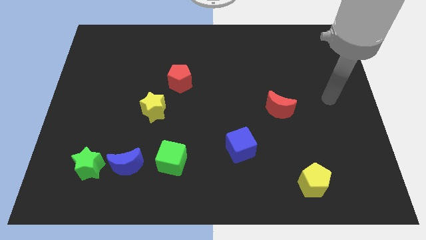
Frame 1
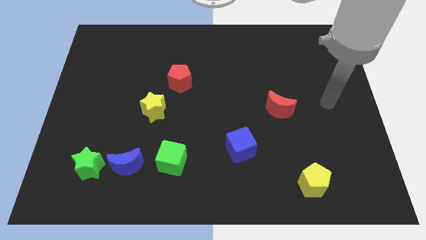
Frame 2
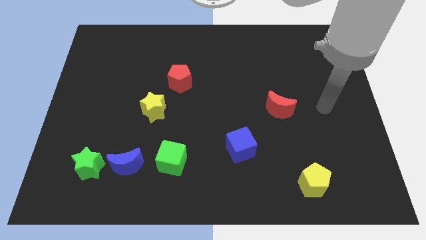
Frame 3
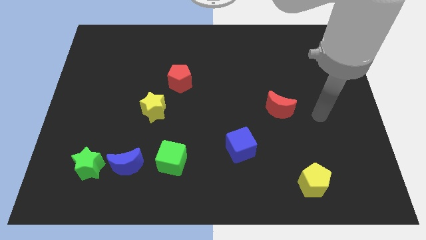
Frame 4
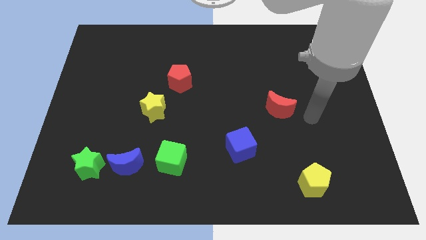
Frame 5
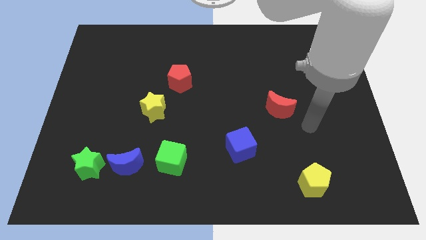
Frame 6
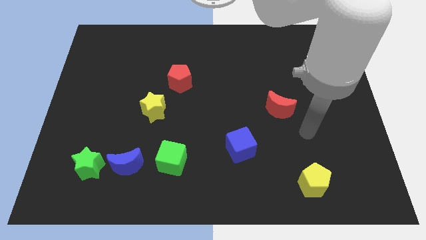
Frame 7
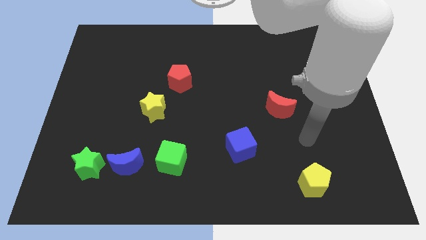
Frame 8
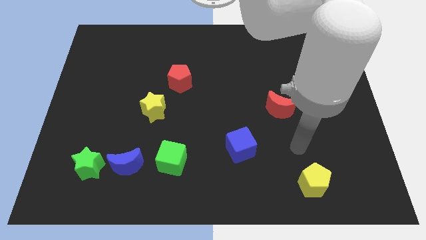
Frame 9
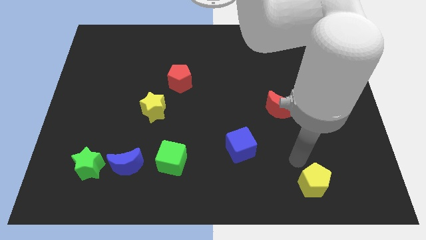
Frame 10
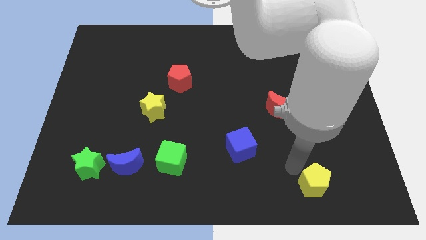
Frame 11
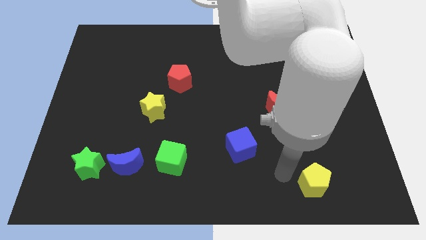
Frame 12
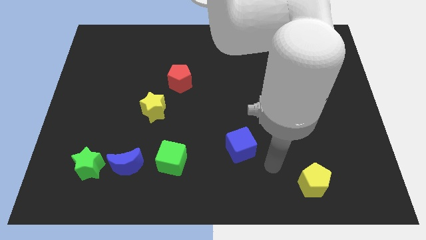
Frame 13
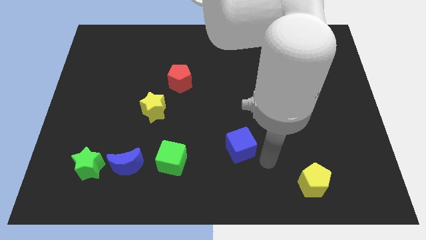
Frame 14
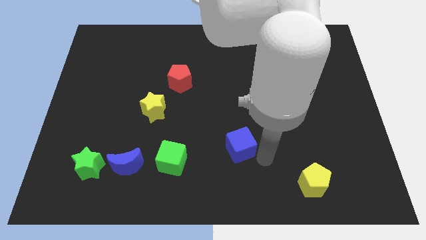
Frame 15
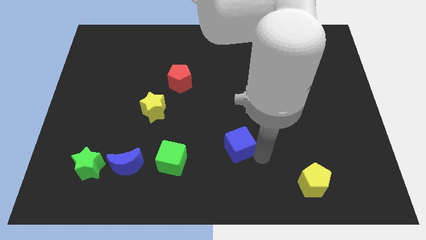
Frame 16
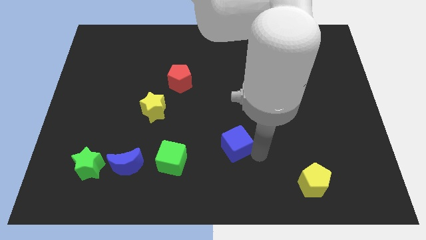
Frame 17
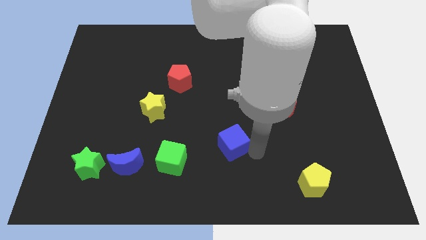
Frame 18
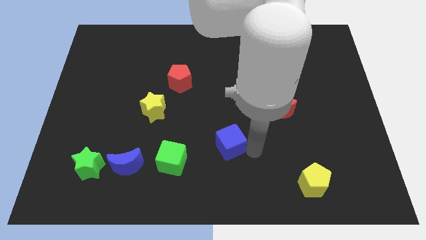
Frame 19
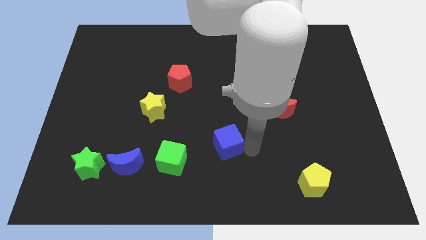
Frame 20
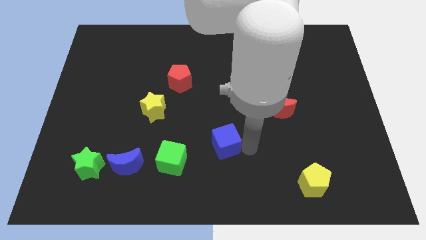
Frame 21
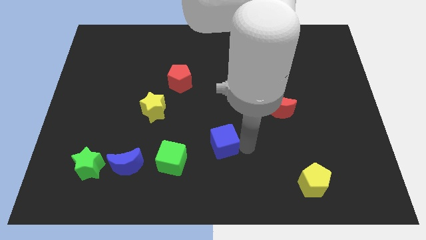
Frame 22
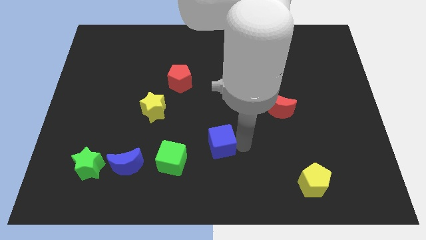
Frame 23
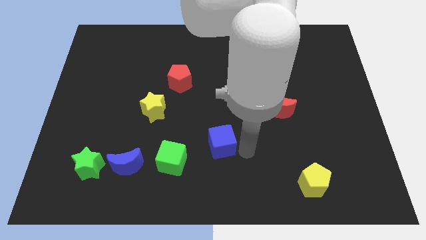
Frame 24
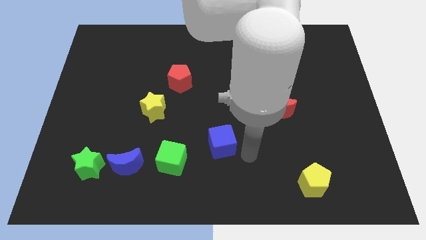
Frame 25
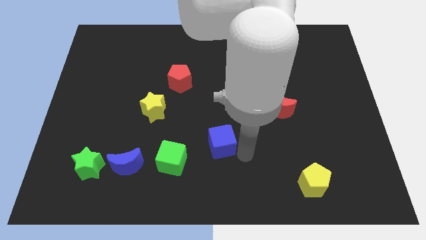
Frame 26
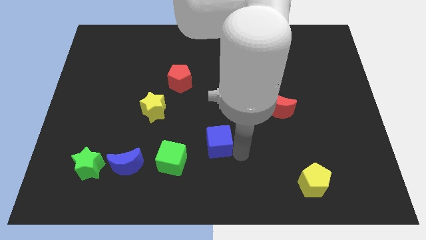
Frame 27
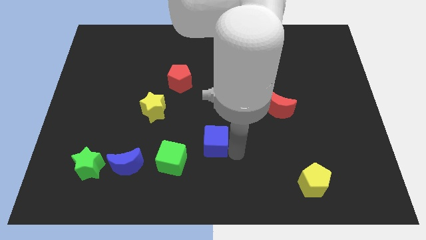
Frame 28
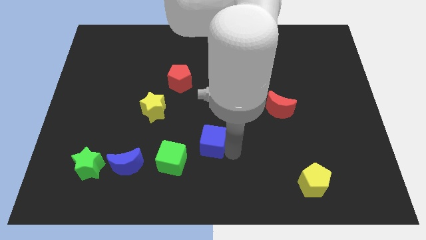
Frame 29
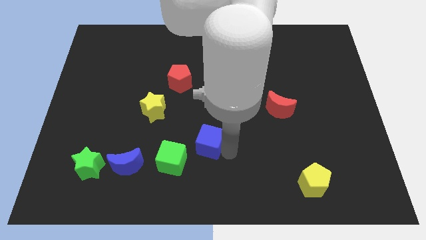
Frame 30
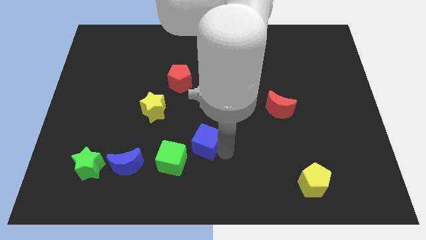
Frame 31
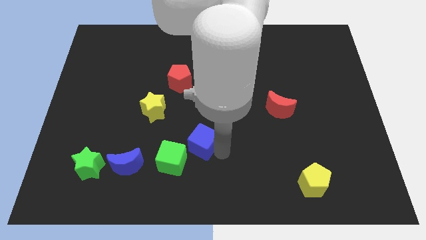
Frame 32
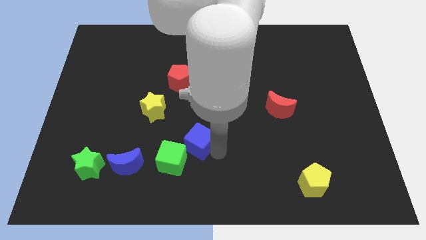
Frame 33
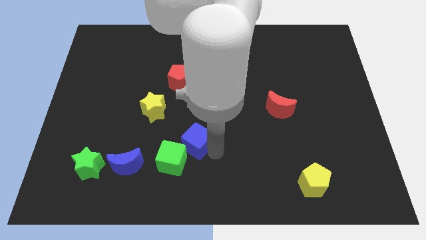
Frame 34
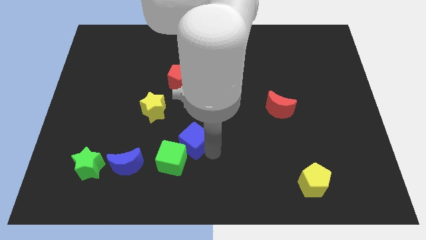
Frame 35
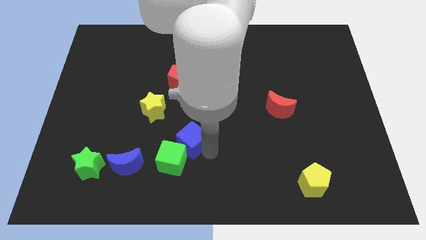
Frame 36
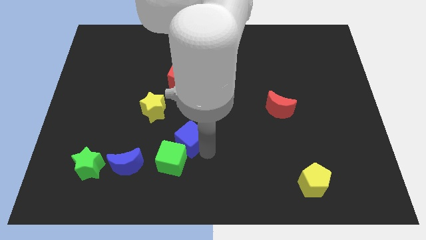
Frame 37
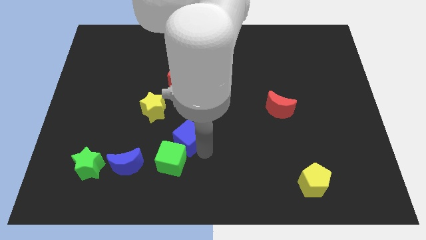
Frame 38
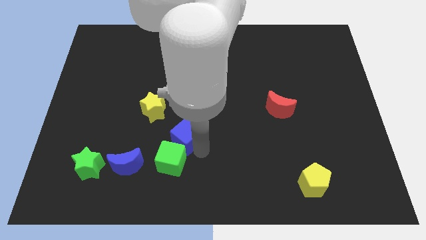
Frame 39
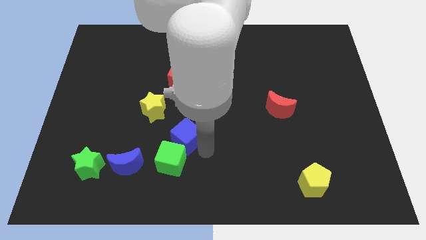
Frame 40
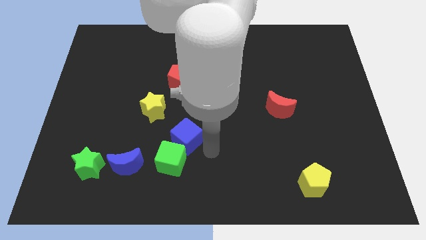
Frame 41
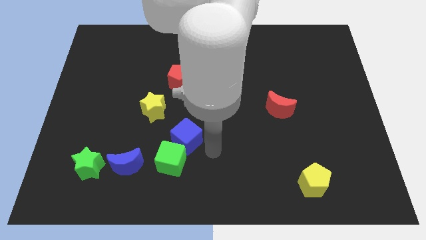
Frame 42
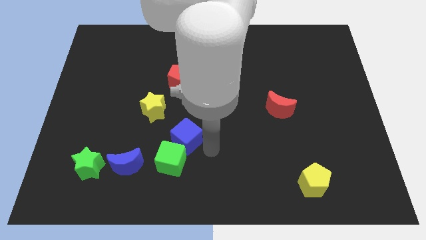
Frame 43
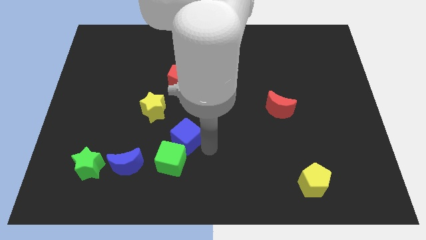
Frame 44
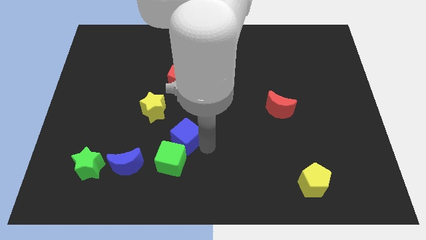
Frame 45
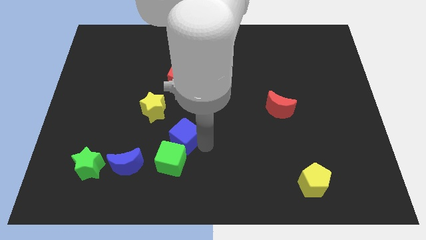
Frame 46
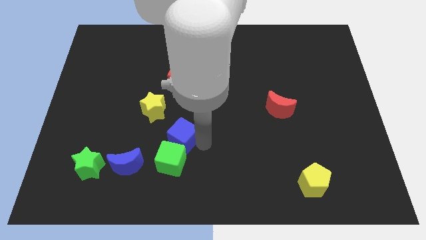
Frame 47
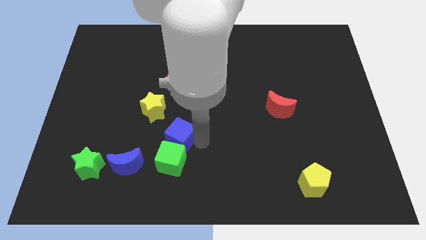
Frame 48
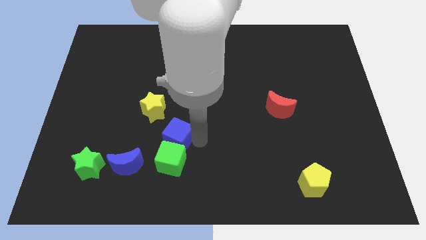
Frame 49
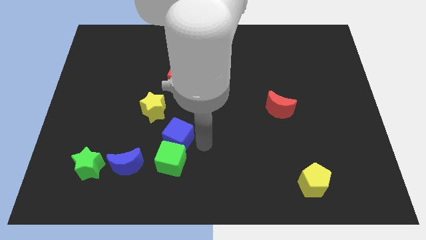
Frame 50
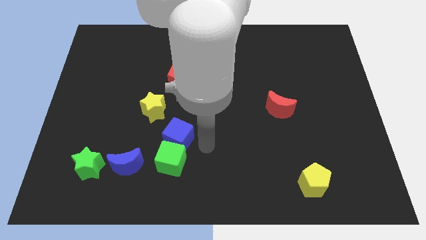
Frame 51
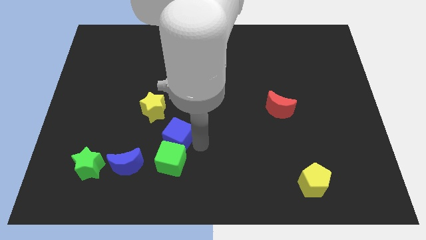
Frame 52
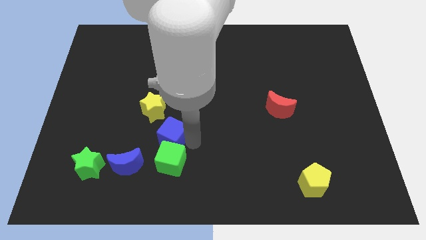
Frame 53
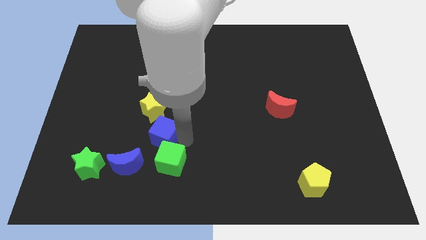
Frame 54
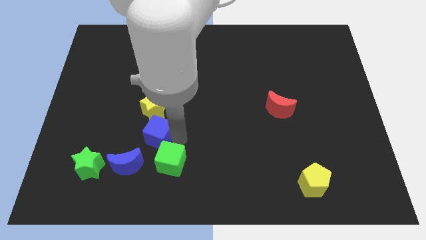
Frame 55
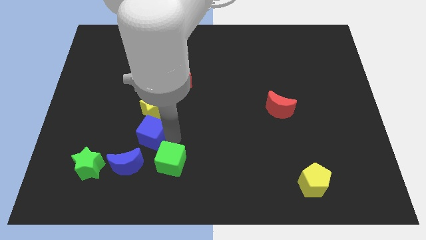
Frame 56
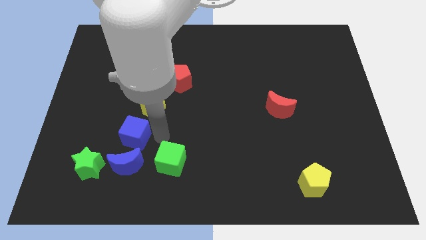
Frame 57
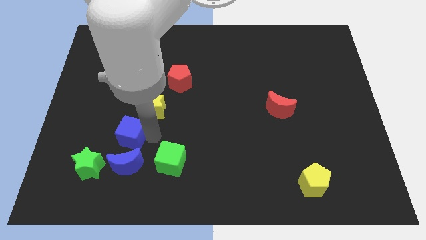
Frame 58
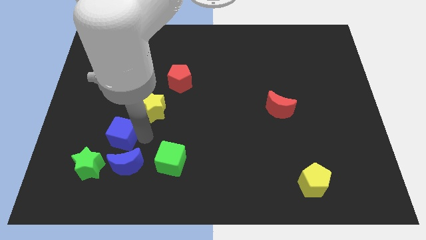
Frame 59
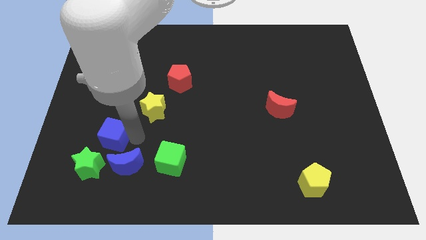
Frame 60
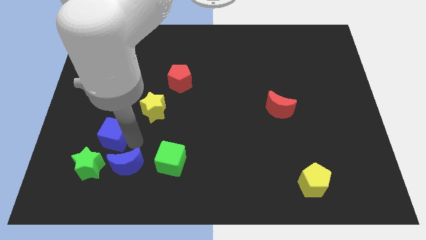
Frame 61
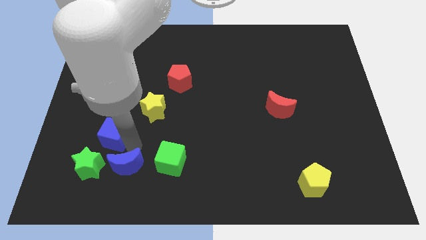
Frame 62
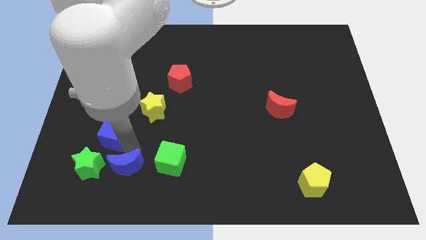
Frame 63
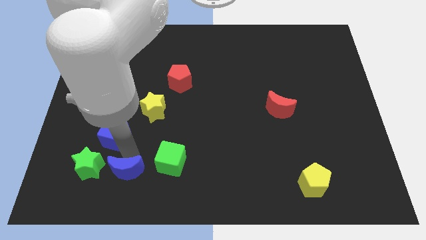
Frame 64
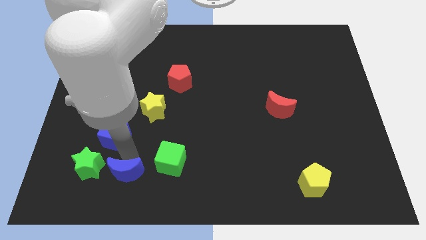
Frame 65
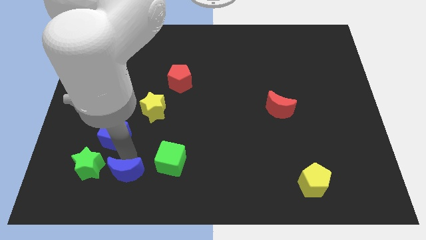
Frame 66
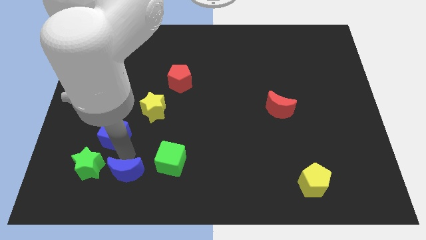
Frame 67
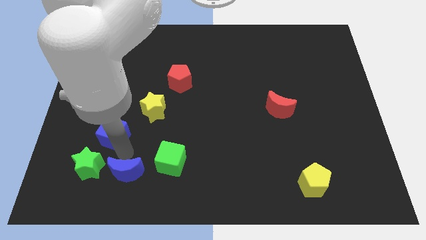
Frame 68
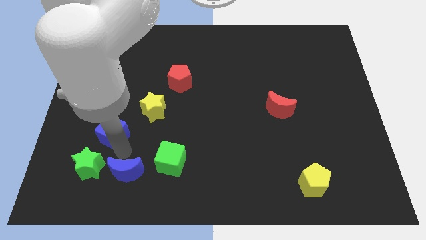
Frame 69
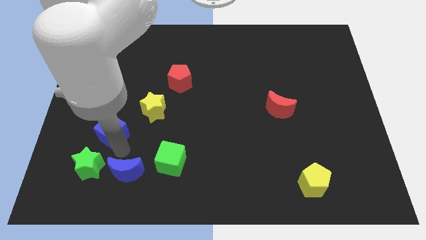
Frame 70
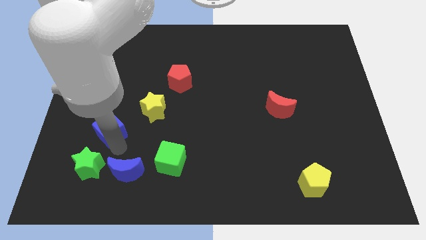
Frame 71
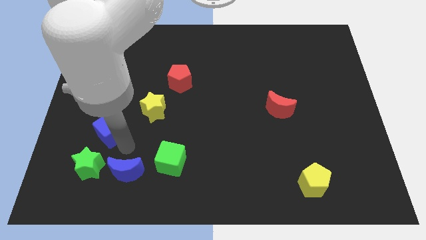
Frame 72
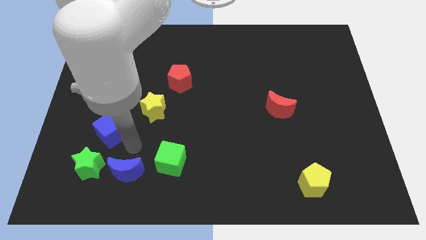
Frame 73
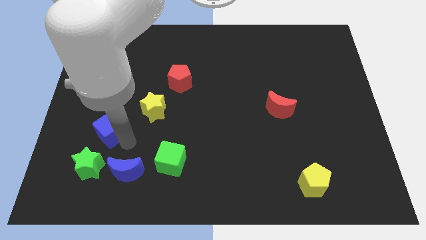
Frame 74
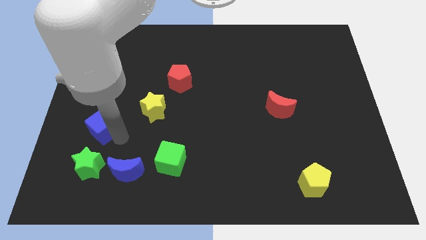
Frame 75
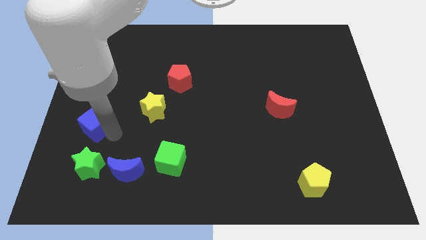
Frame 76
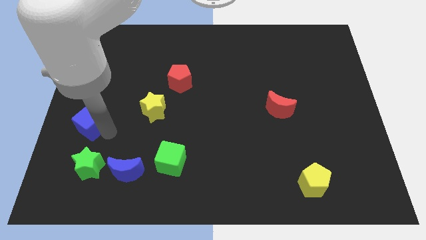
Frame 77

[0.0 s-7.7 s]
move the blue cube to the left side of the board

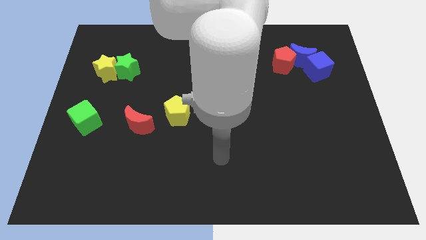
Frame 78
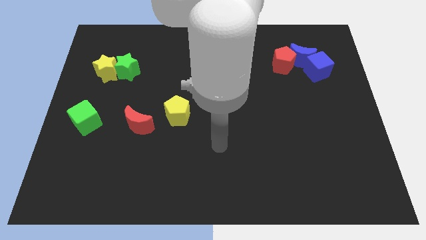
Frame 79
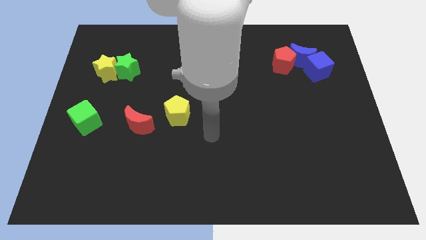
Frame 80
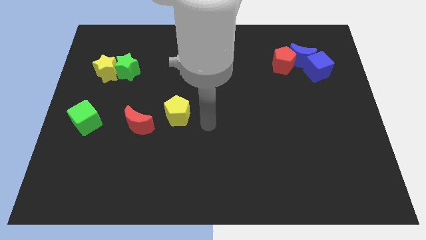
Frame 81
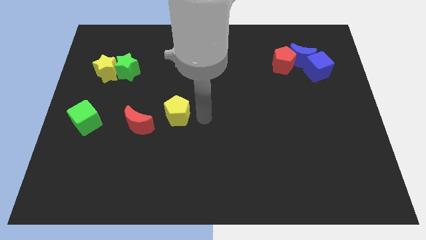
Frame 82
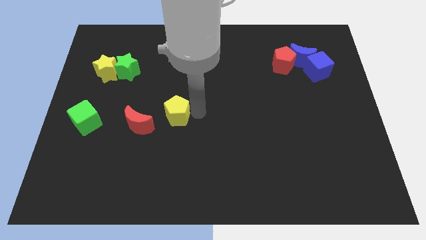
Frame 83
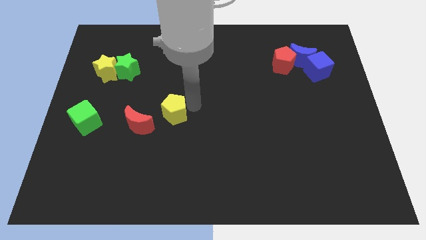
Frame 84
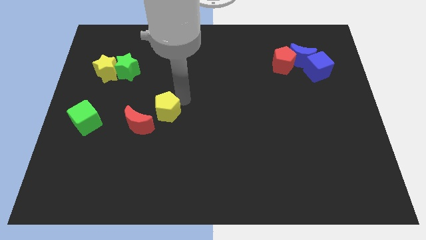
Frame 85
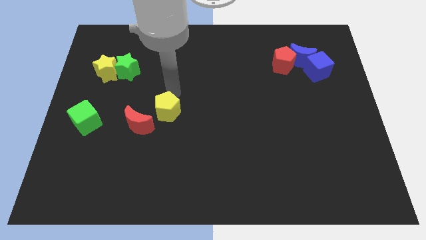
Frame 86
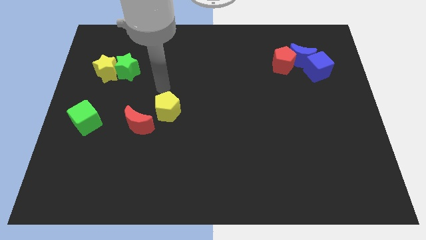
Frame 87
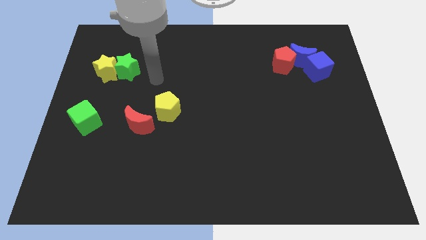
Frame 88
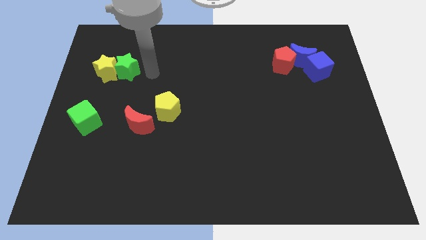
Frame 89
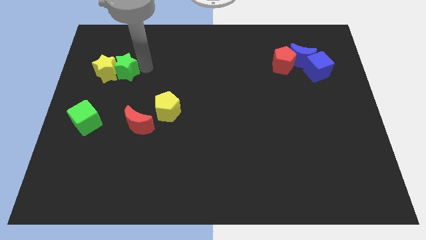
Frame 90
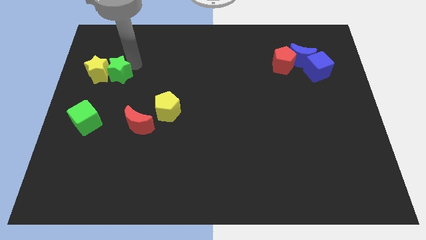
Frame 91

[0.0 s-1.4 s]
put the yellow star to the center left
